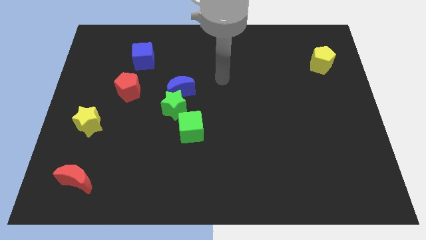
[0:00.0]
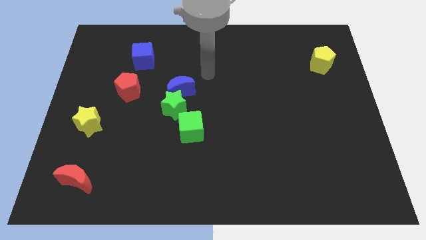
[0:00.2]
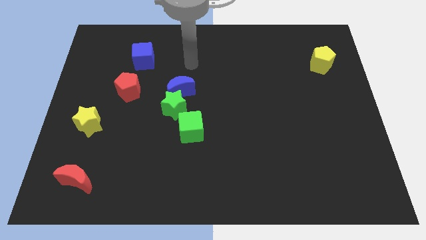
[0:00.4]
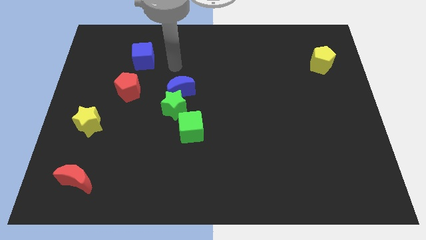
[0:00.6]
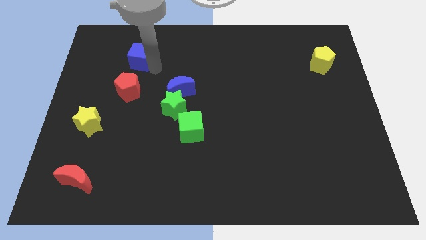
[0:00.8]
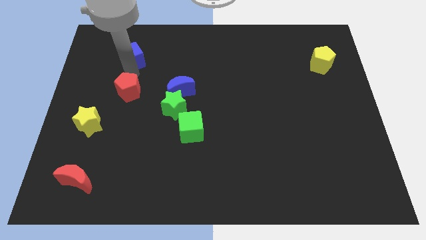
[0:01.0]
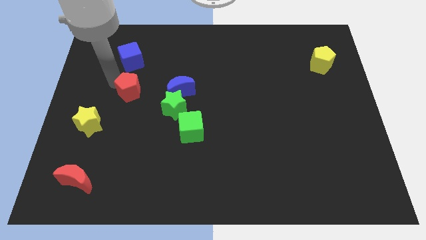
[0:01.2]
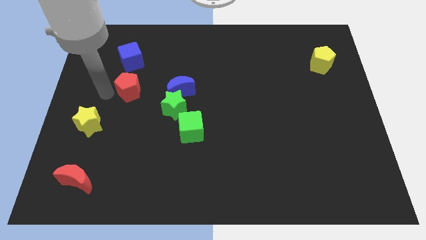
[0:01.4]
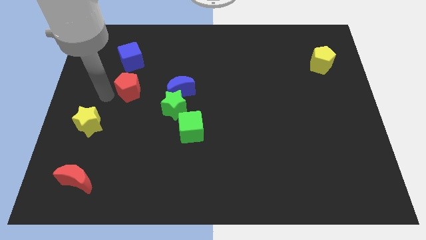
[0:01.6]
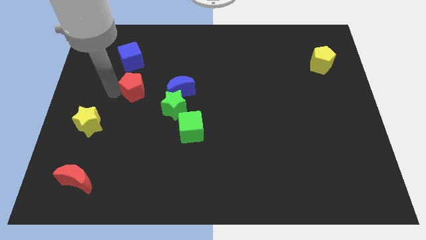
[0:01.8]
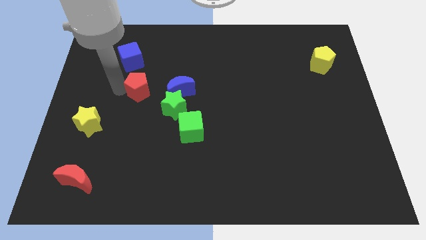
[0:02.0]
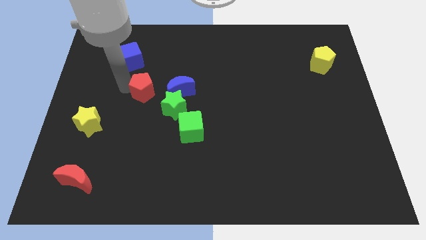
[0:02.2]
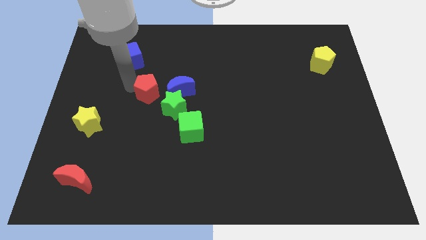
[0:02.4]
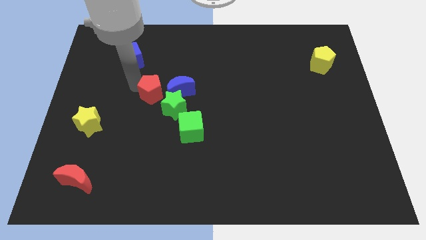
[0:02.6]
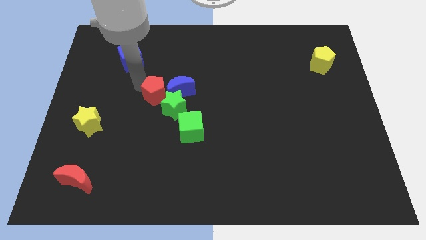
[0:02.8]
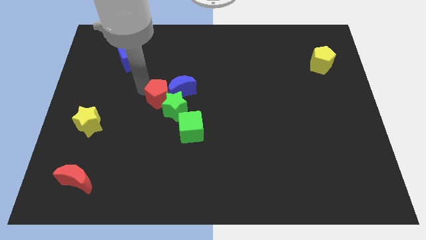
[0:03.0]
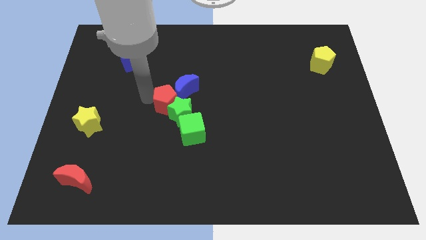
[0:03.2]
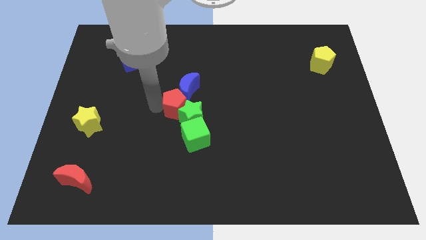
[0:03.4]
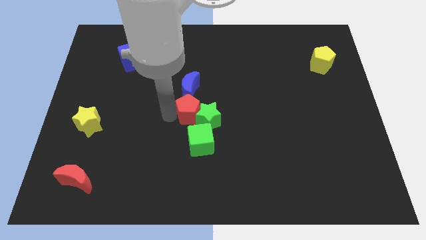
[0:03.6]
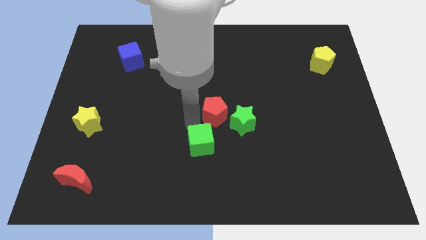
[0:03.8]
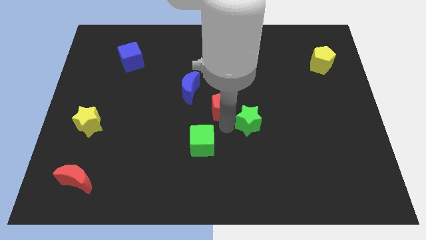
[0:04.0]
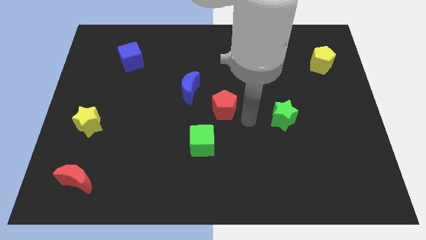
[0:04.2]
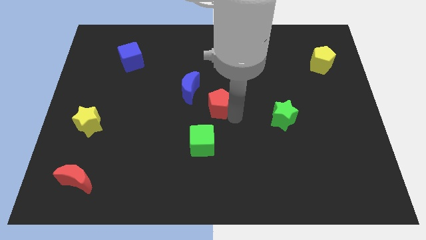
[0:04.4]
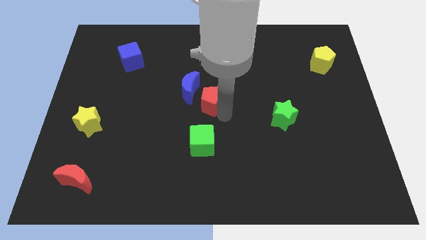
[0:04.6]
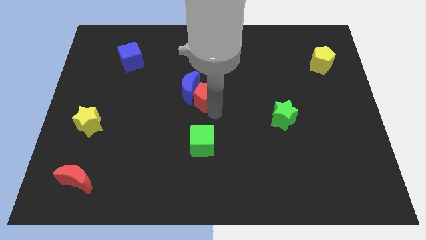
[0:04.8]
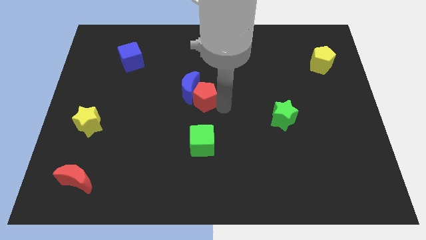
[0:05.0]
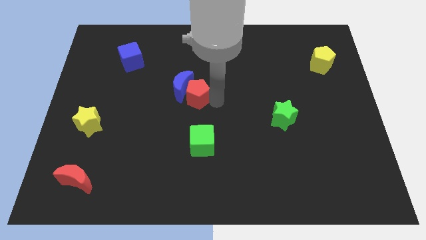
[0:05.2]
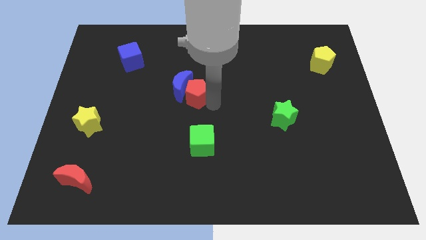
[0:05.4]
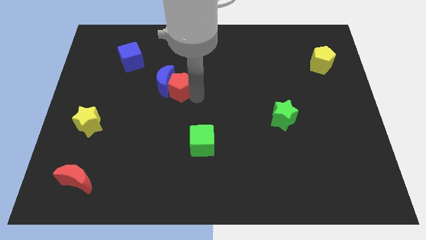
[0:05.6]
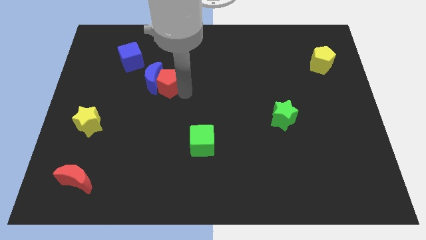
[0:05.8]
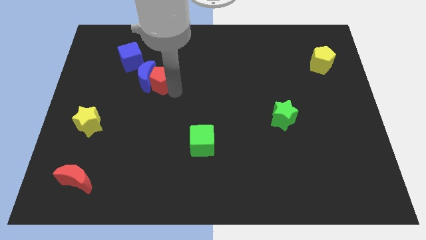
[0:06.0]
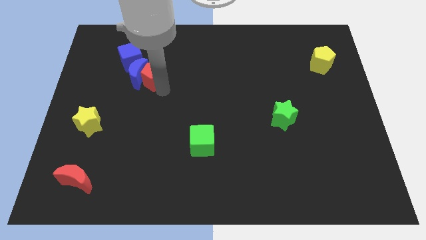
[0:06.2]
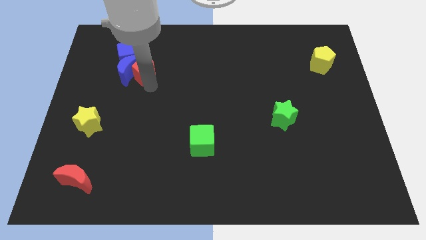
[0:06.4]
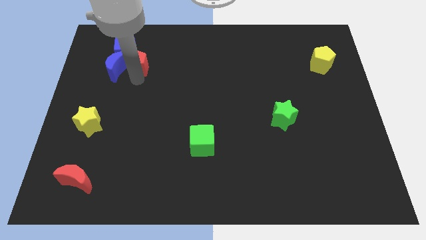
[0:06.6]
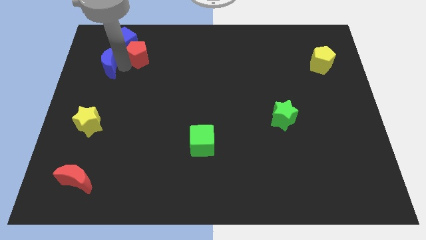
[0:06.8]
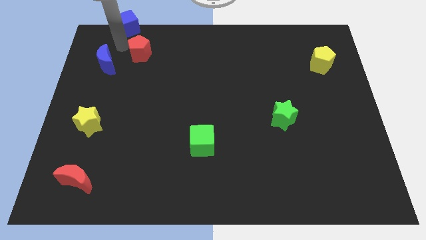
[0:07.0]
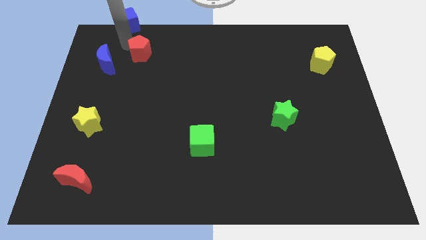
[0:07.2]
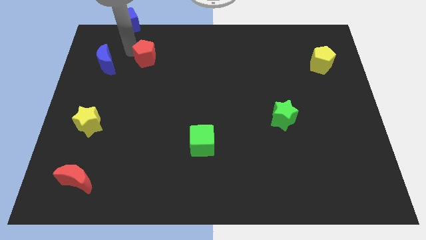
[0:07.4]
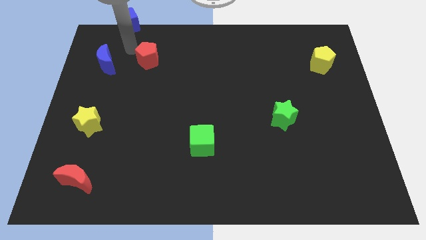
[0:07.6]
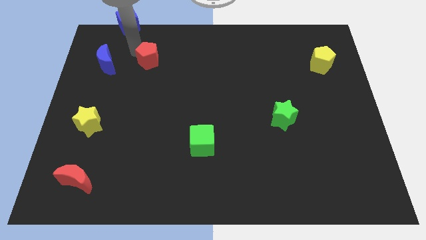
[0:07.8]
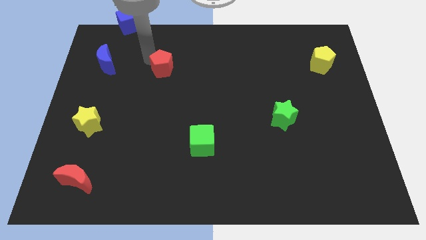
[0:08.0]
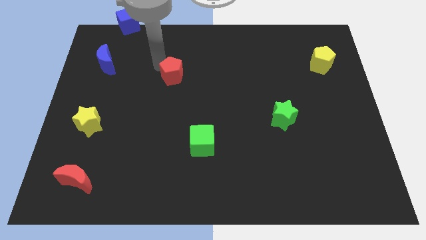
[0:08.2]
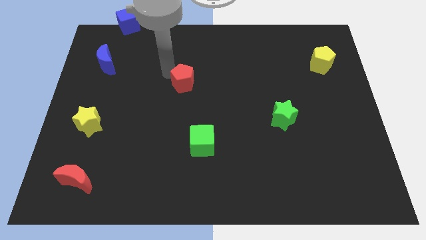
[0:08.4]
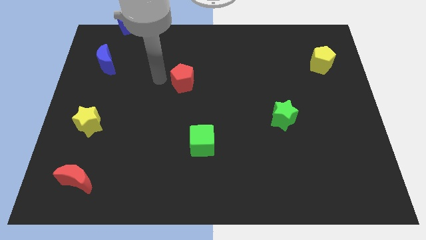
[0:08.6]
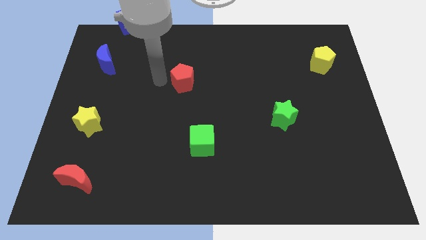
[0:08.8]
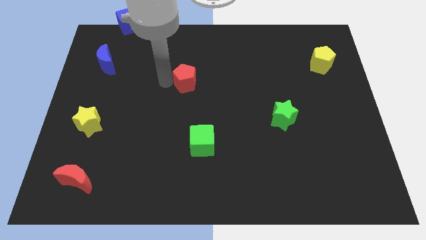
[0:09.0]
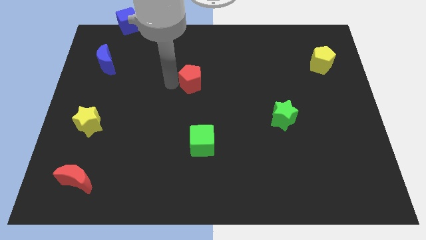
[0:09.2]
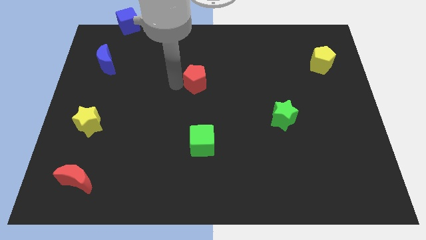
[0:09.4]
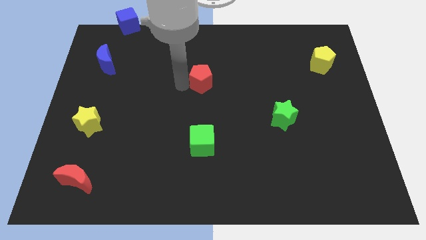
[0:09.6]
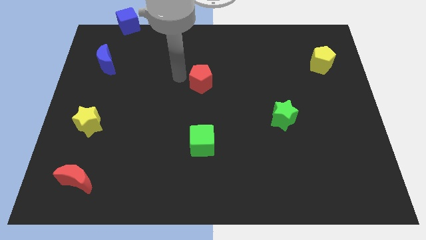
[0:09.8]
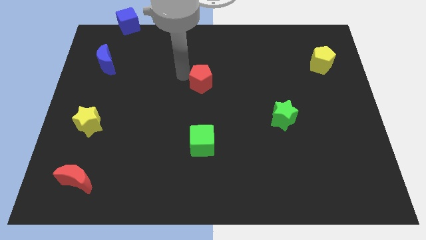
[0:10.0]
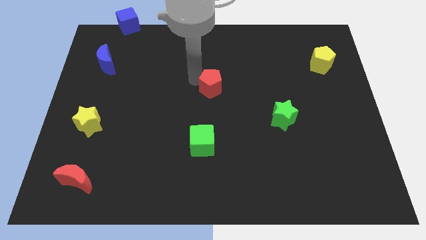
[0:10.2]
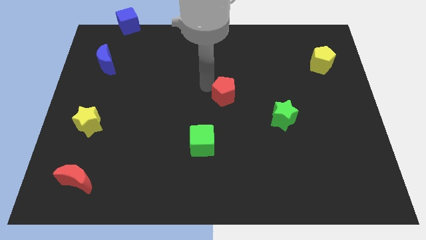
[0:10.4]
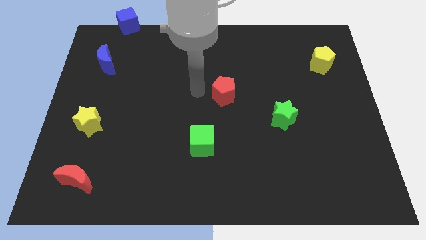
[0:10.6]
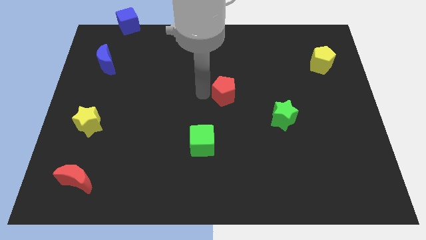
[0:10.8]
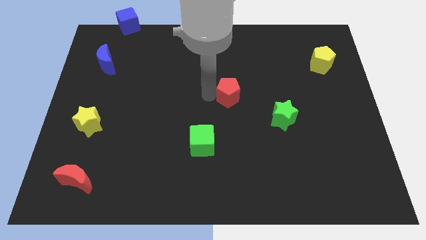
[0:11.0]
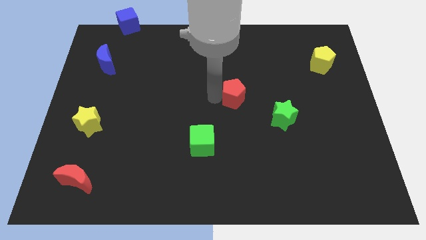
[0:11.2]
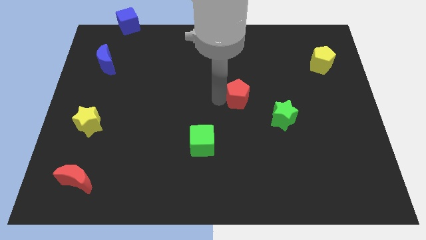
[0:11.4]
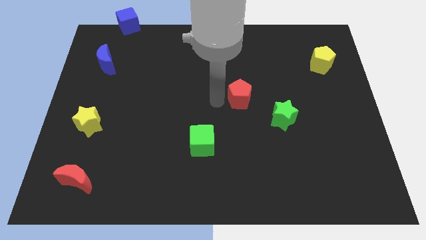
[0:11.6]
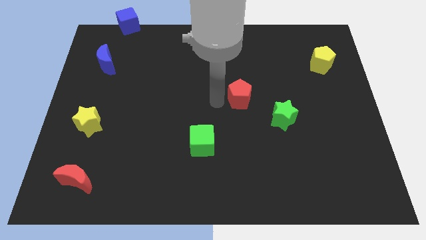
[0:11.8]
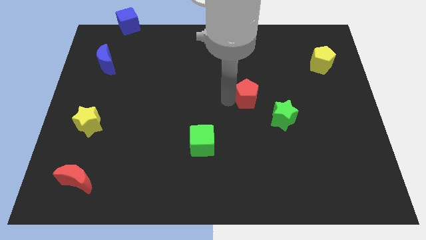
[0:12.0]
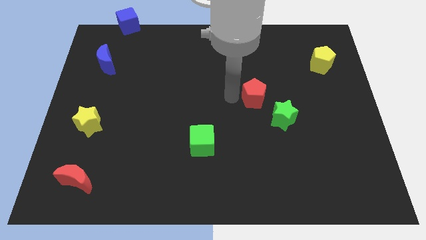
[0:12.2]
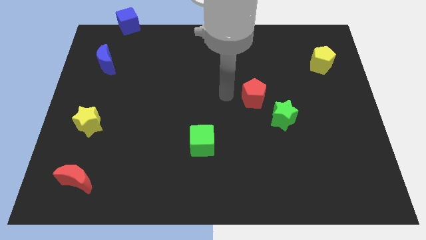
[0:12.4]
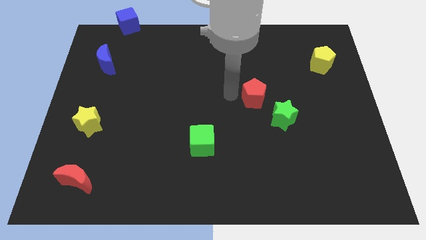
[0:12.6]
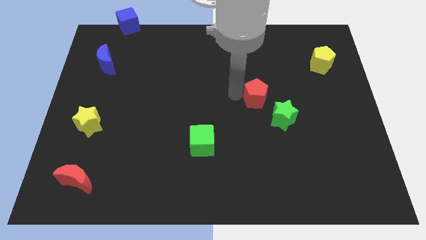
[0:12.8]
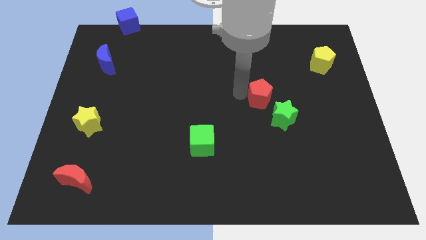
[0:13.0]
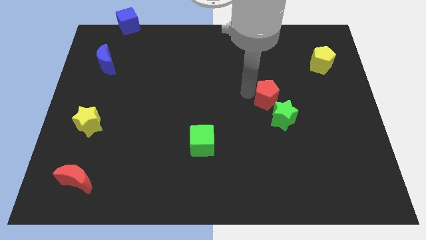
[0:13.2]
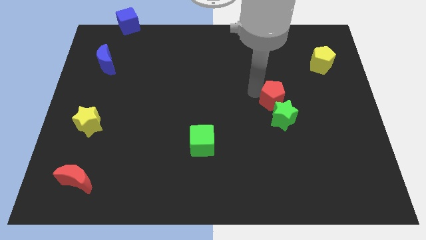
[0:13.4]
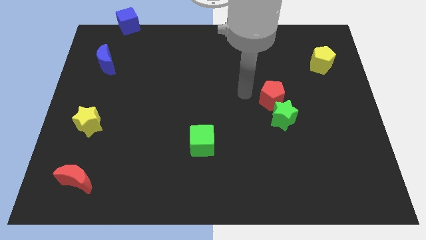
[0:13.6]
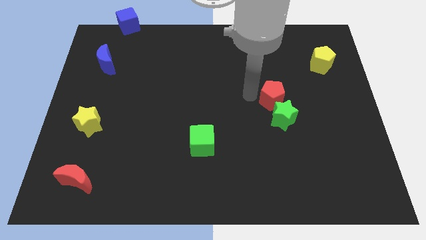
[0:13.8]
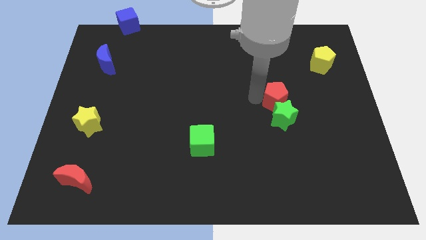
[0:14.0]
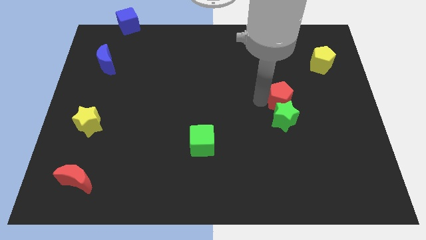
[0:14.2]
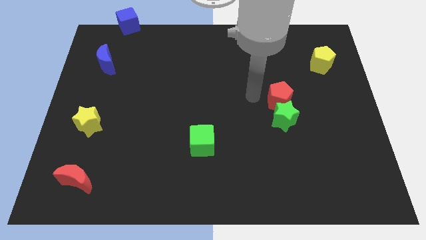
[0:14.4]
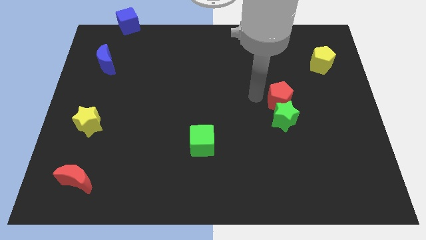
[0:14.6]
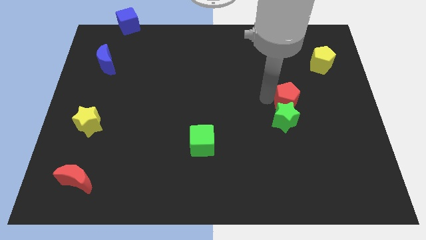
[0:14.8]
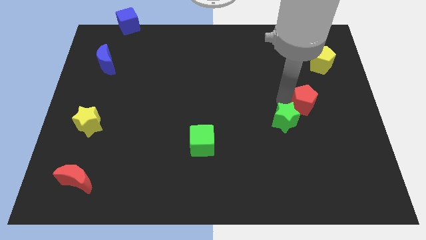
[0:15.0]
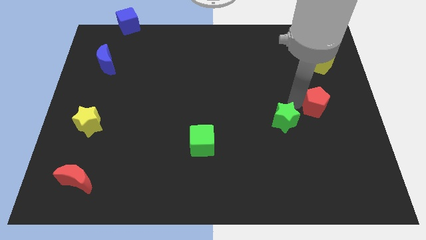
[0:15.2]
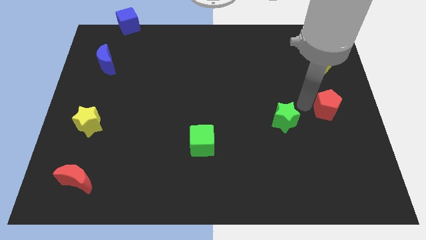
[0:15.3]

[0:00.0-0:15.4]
push the red pentagon to the center right
